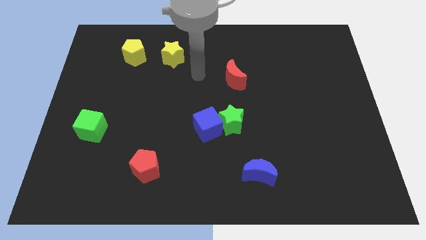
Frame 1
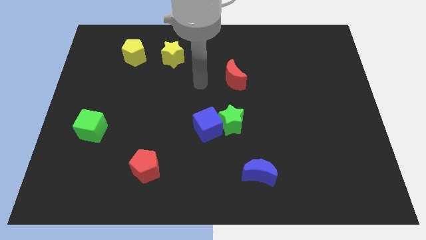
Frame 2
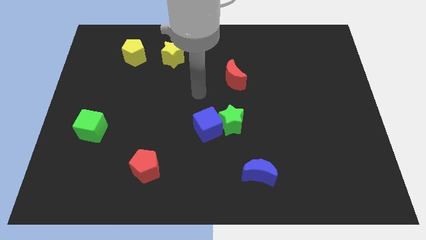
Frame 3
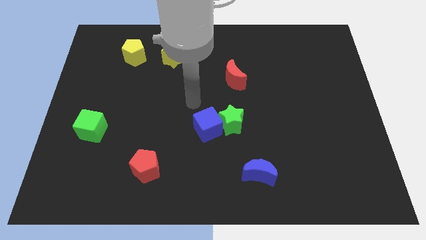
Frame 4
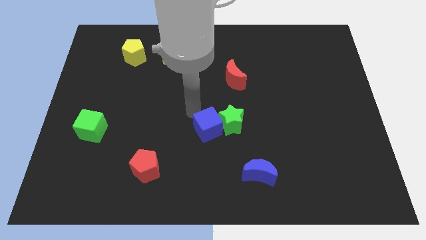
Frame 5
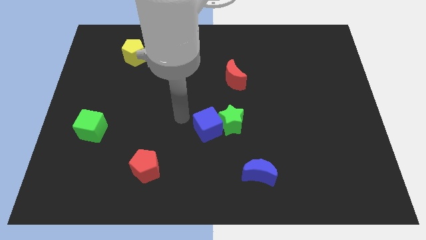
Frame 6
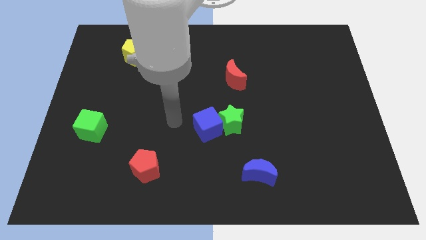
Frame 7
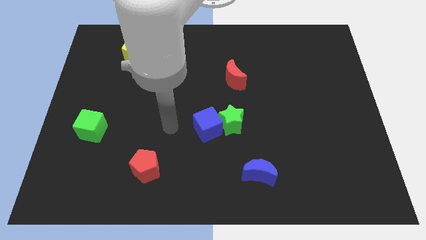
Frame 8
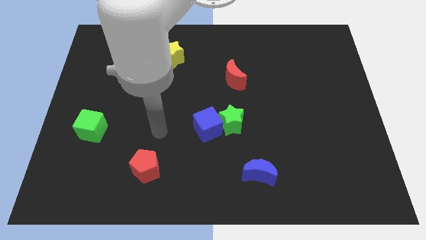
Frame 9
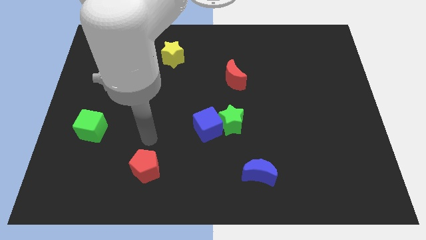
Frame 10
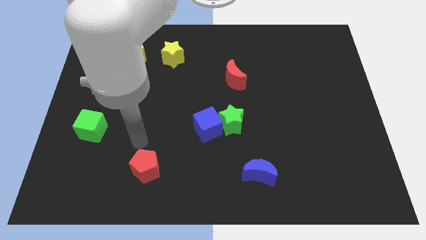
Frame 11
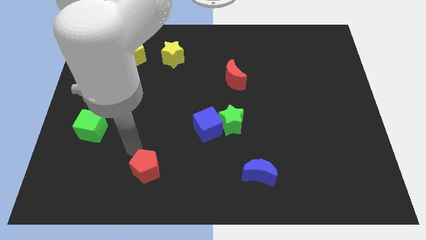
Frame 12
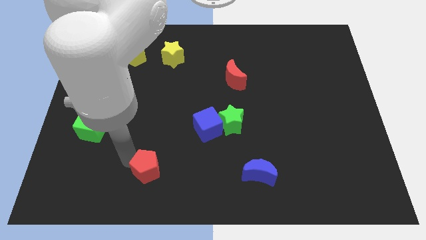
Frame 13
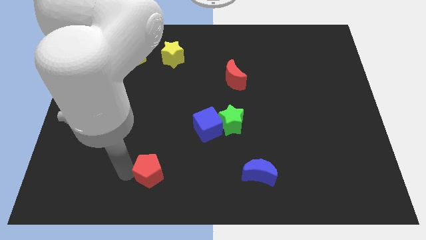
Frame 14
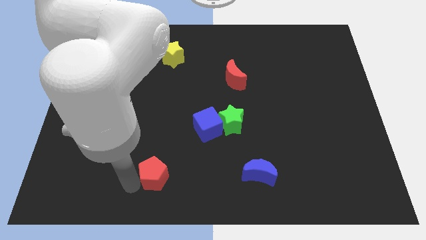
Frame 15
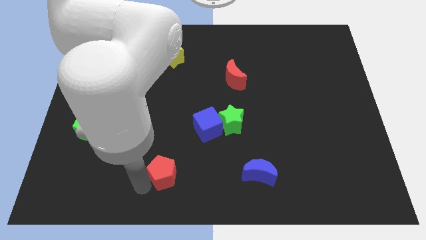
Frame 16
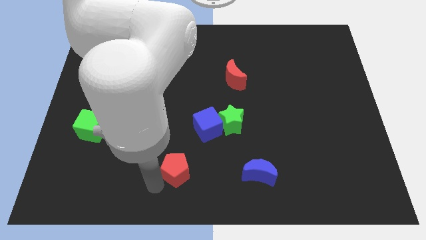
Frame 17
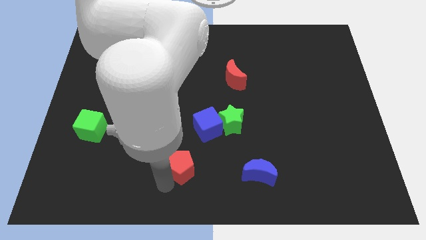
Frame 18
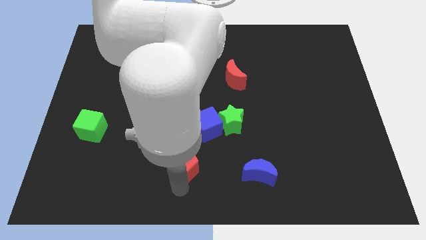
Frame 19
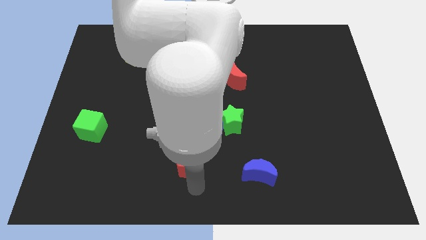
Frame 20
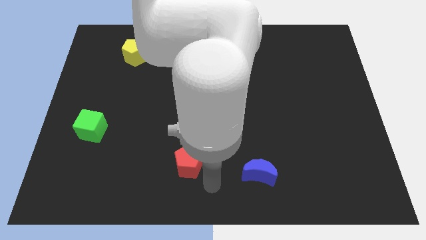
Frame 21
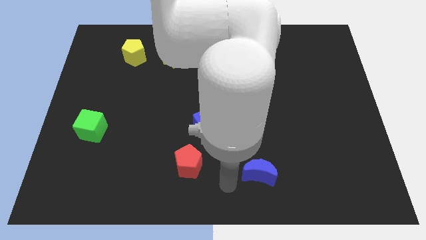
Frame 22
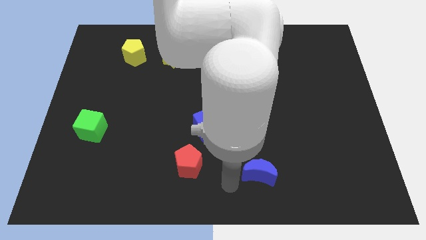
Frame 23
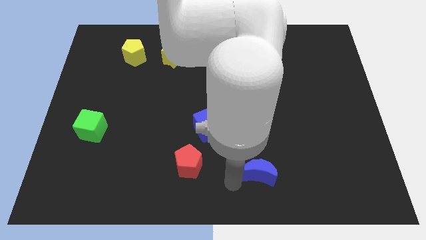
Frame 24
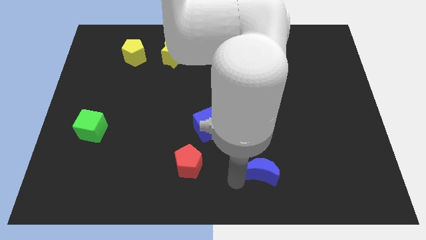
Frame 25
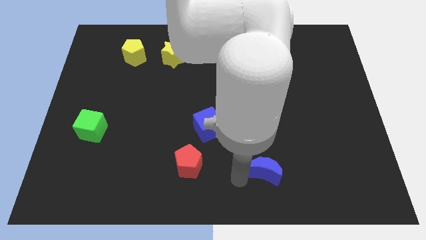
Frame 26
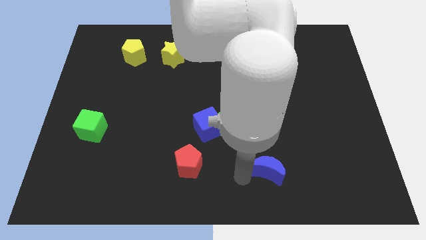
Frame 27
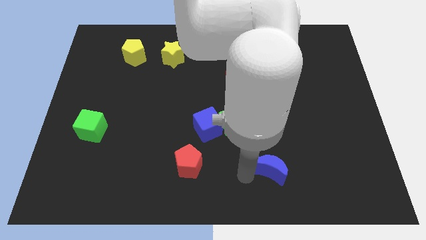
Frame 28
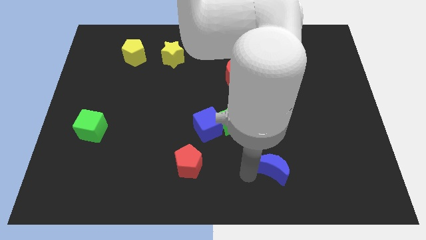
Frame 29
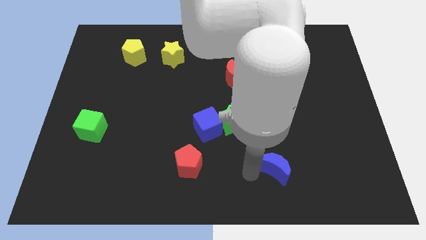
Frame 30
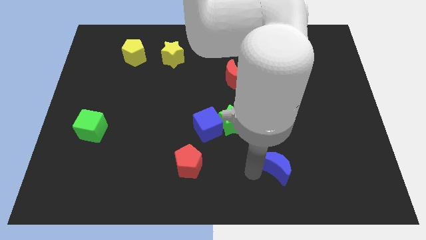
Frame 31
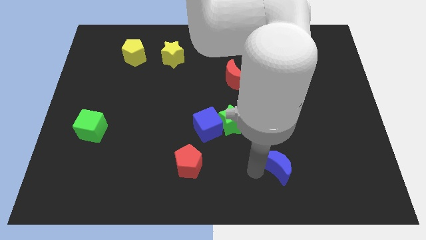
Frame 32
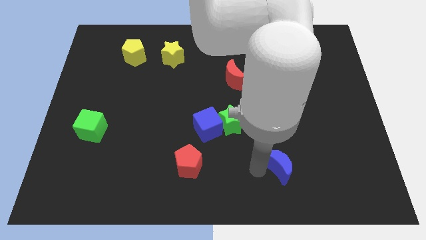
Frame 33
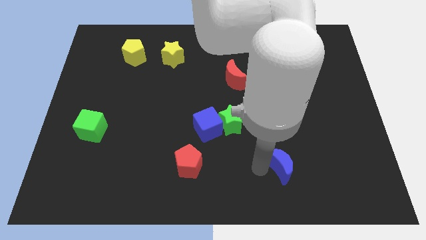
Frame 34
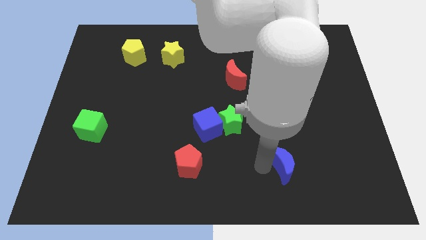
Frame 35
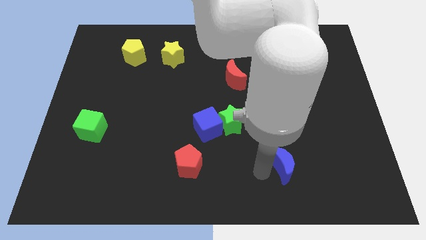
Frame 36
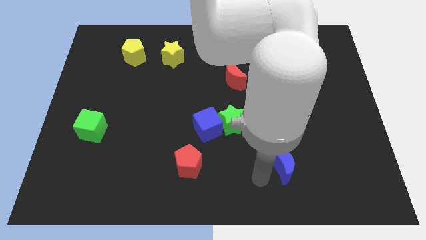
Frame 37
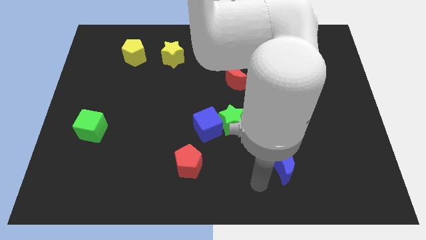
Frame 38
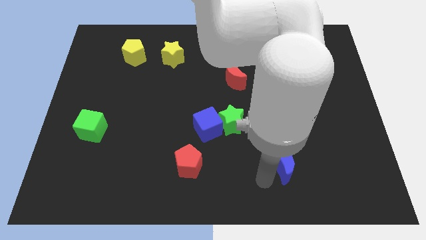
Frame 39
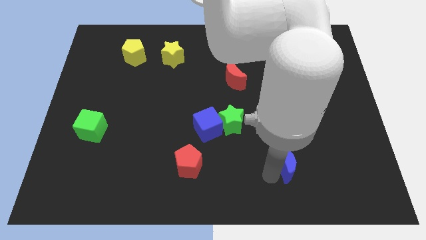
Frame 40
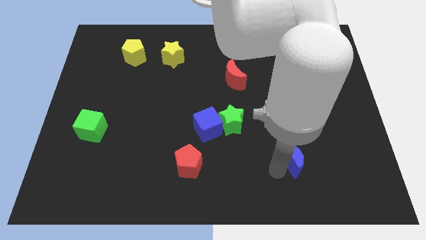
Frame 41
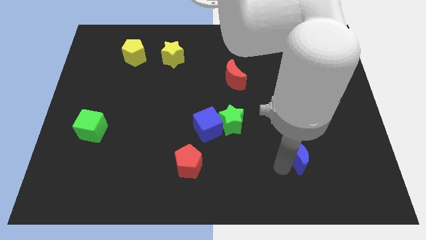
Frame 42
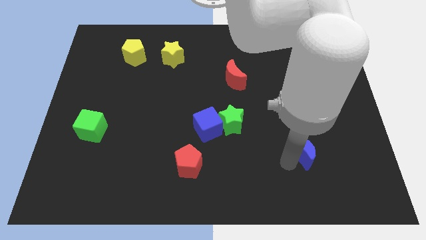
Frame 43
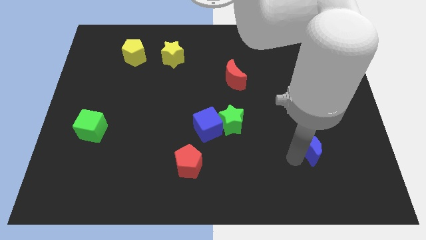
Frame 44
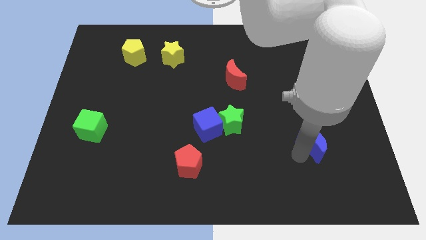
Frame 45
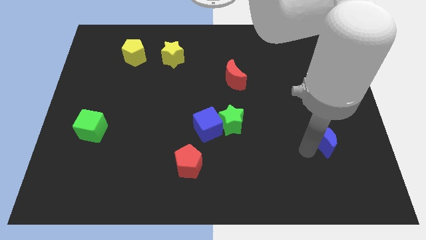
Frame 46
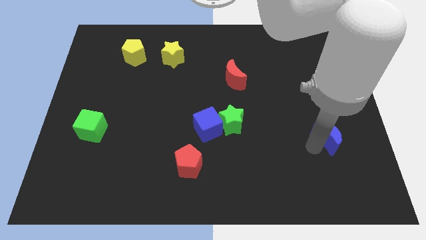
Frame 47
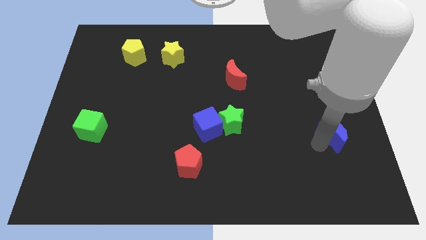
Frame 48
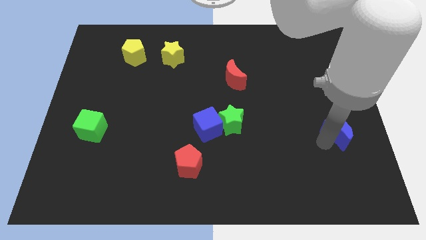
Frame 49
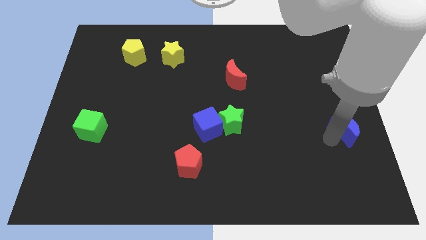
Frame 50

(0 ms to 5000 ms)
push the blue moon to the right side of the board

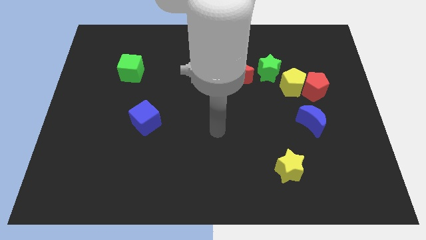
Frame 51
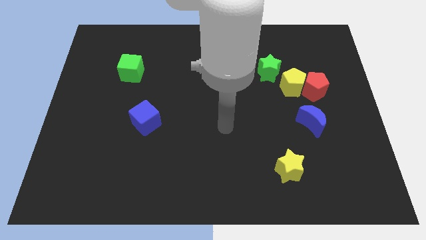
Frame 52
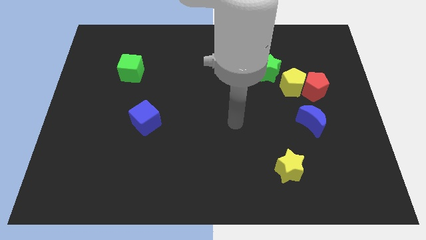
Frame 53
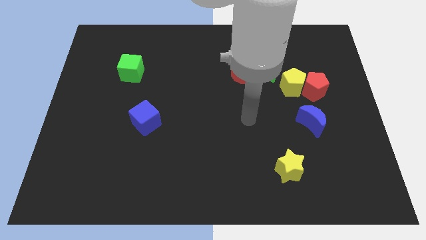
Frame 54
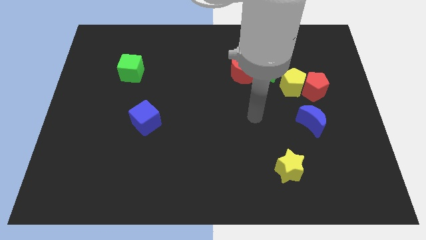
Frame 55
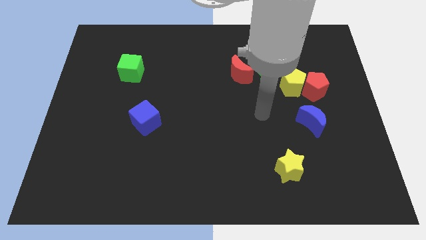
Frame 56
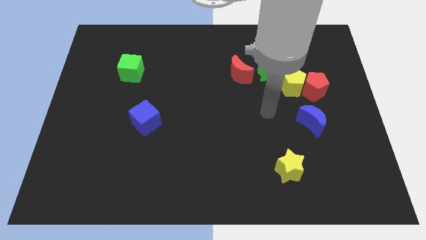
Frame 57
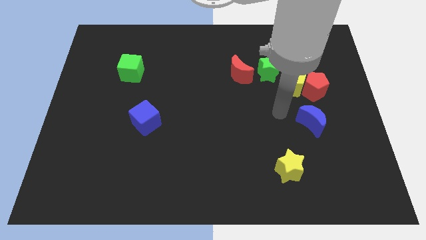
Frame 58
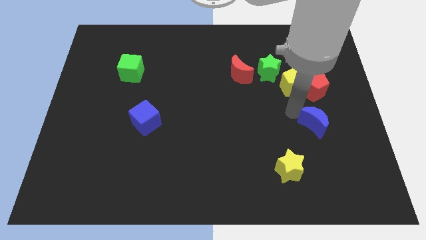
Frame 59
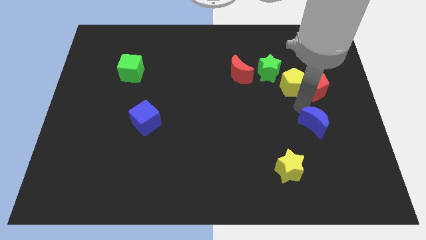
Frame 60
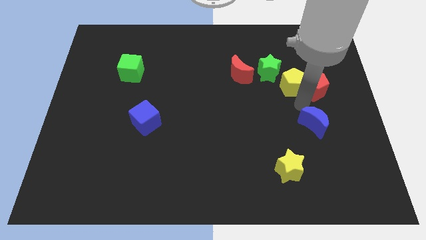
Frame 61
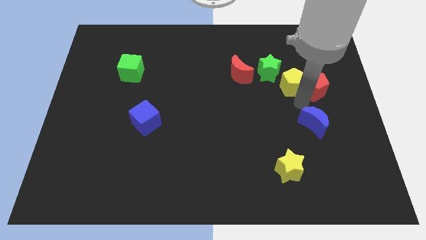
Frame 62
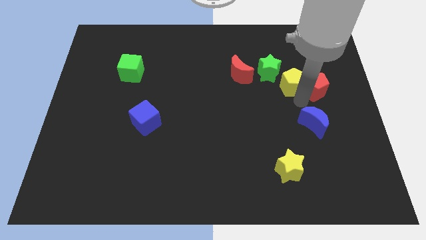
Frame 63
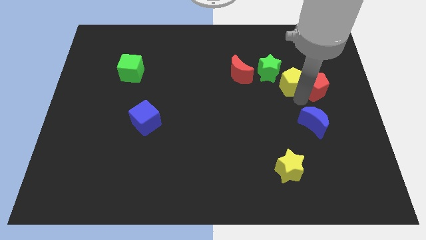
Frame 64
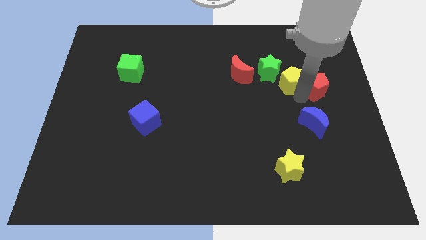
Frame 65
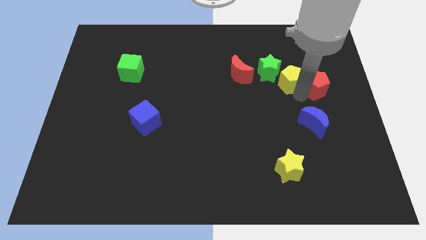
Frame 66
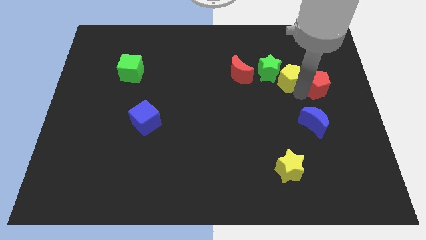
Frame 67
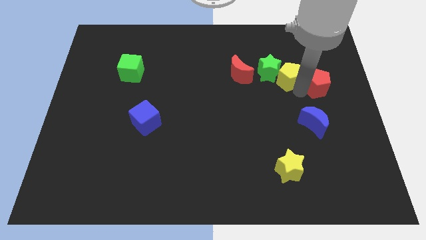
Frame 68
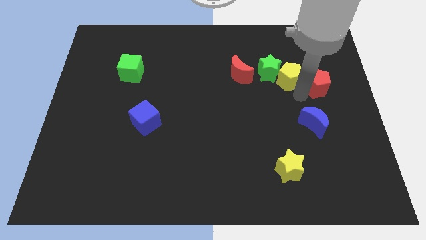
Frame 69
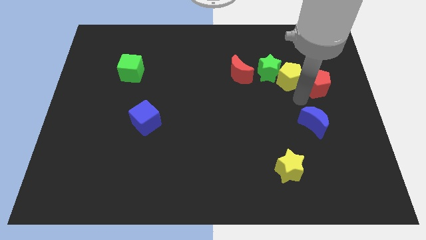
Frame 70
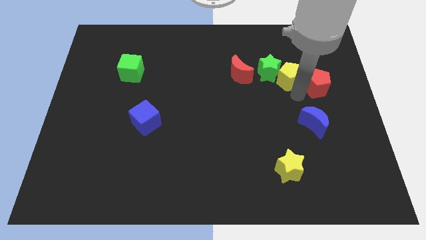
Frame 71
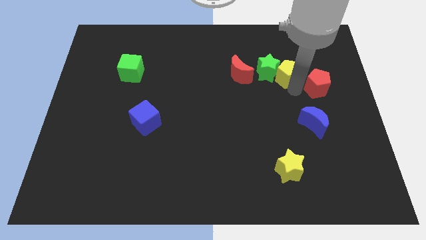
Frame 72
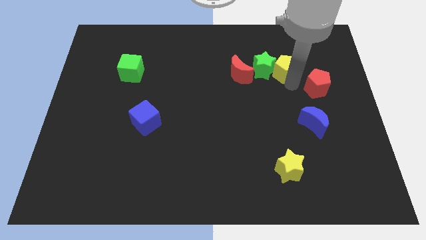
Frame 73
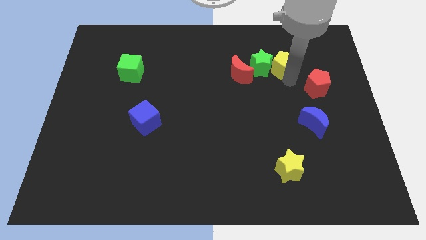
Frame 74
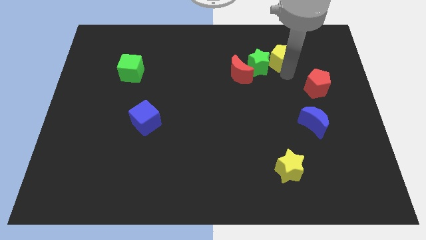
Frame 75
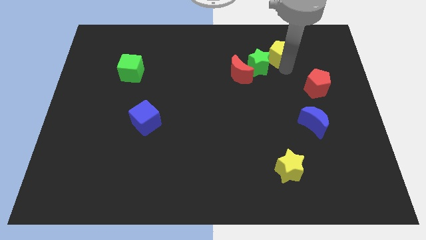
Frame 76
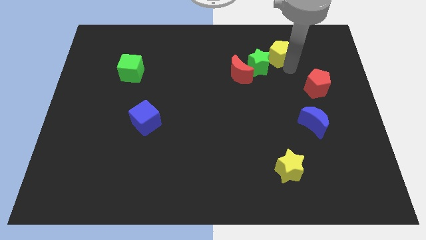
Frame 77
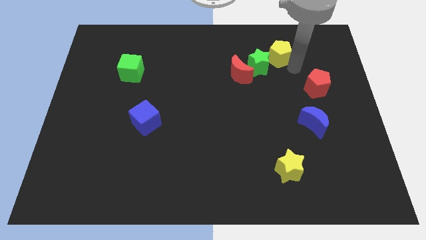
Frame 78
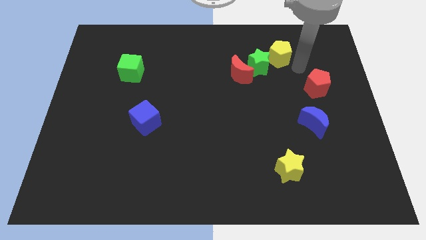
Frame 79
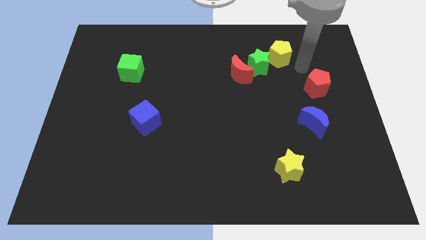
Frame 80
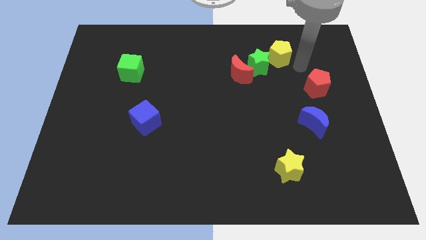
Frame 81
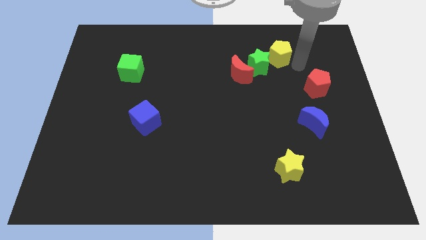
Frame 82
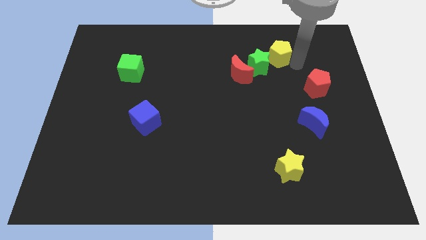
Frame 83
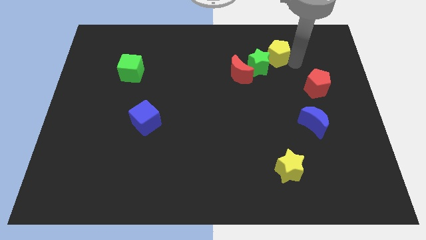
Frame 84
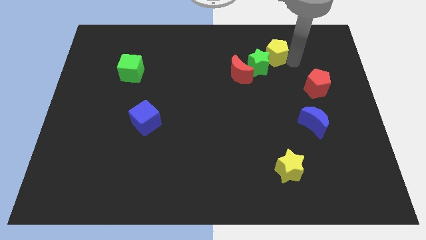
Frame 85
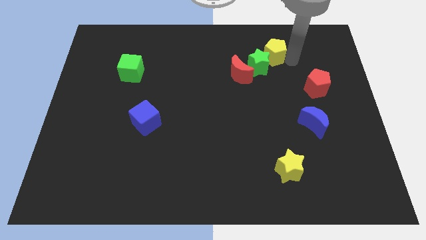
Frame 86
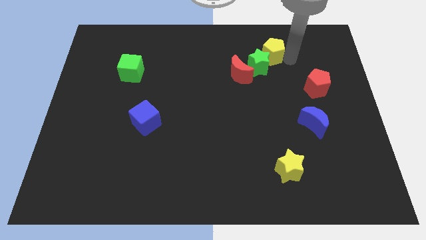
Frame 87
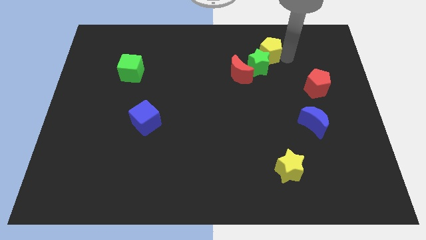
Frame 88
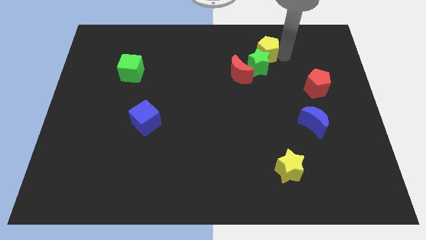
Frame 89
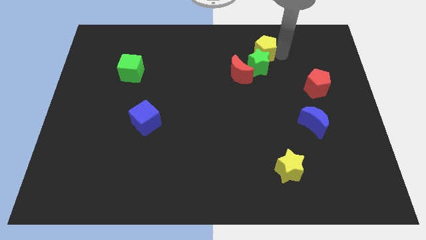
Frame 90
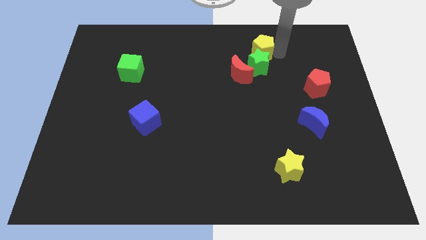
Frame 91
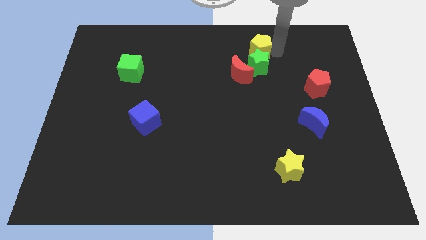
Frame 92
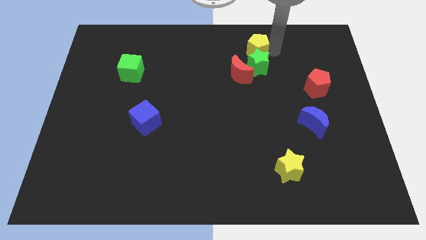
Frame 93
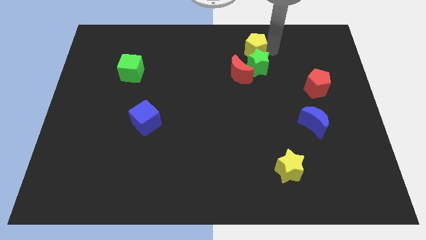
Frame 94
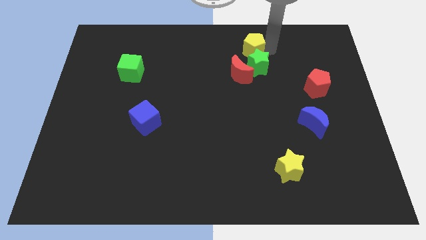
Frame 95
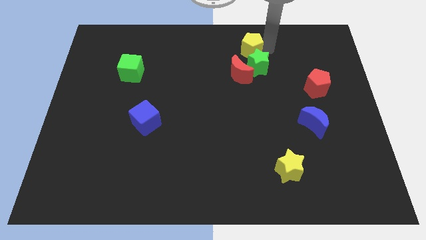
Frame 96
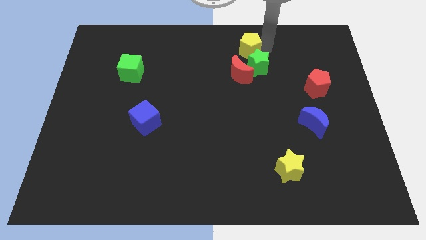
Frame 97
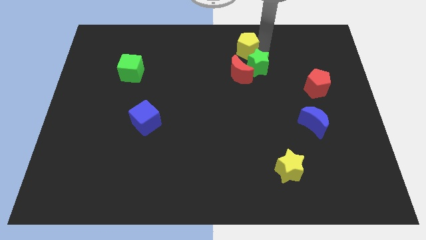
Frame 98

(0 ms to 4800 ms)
move the yellow pentagon to the towards your base
